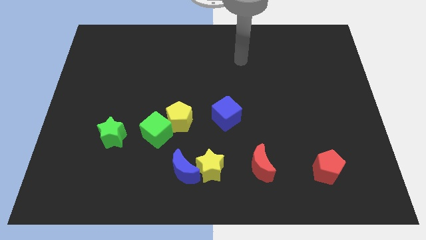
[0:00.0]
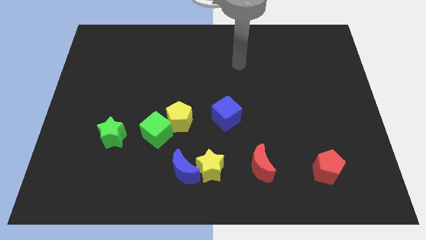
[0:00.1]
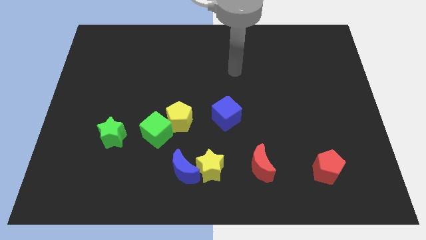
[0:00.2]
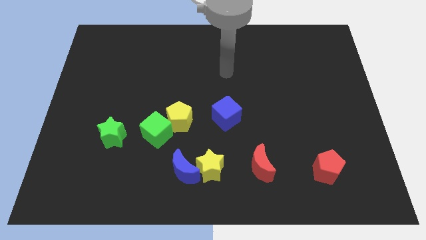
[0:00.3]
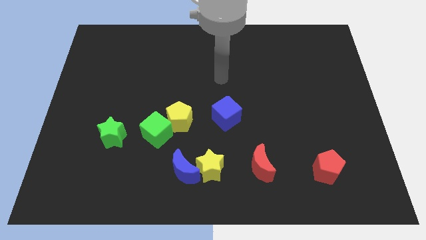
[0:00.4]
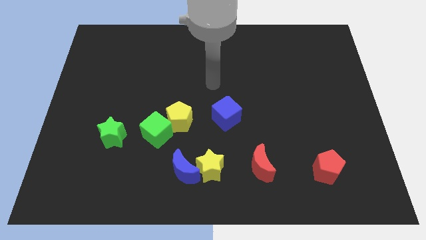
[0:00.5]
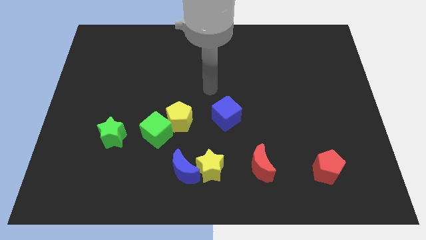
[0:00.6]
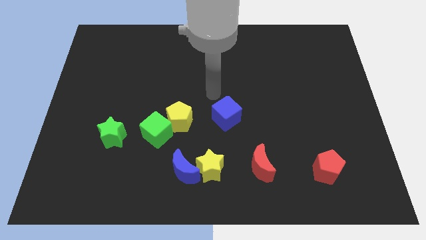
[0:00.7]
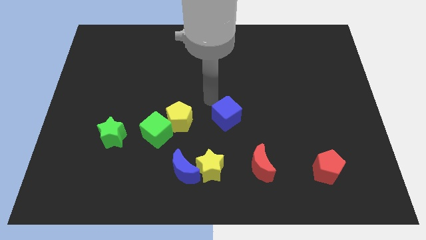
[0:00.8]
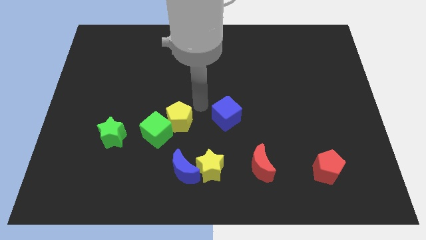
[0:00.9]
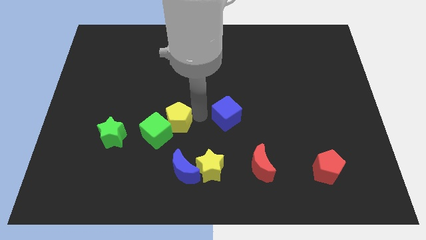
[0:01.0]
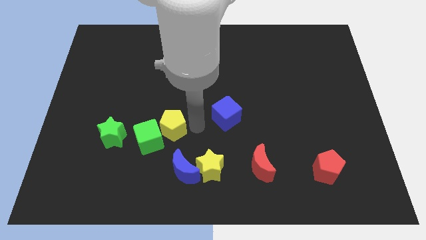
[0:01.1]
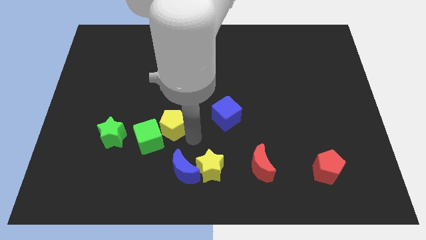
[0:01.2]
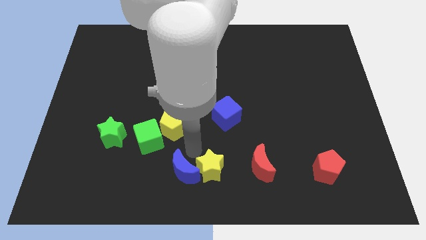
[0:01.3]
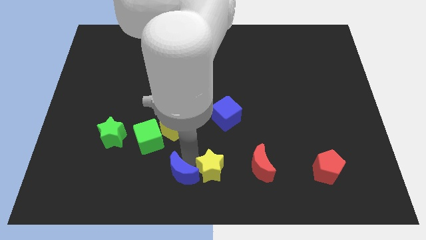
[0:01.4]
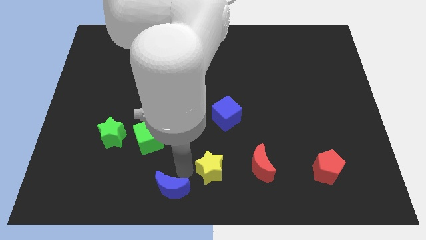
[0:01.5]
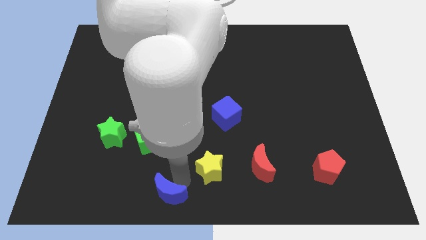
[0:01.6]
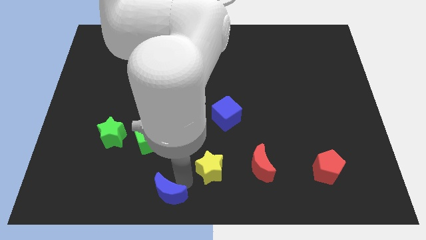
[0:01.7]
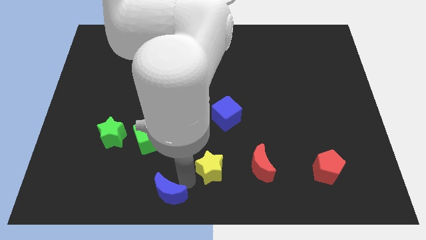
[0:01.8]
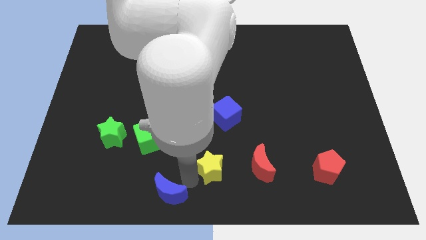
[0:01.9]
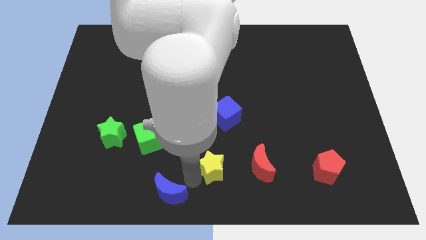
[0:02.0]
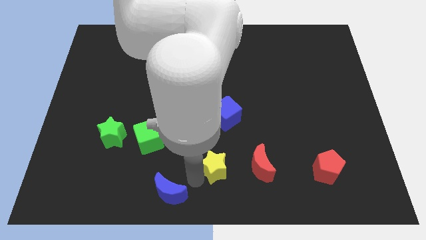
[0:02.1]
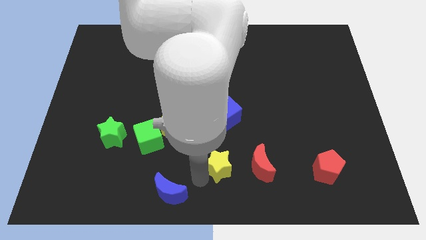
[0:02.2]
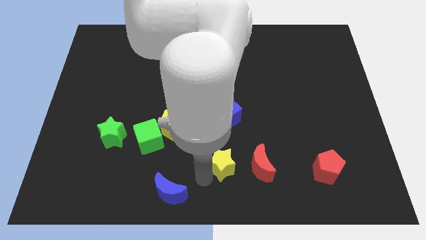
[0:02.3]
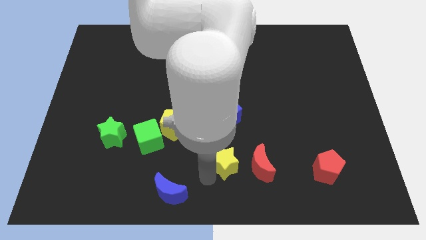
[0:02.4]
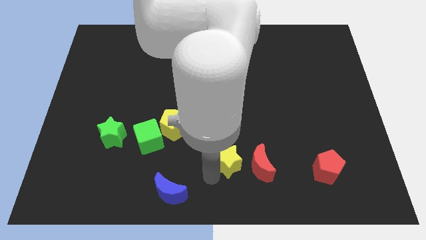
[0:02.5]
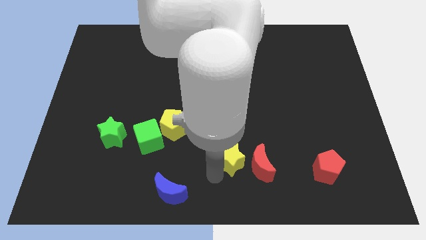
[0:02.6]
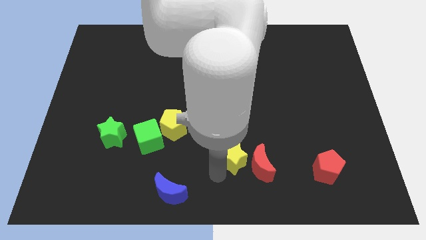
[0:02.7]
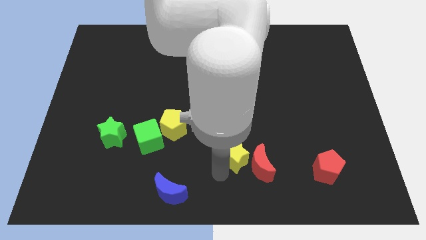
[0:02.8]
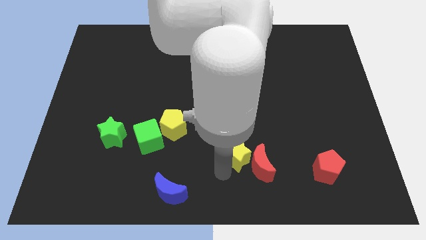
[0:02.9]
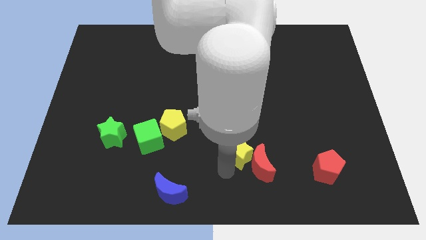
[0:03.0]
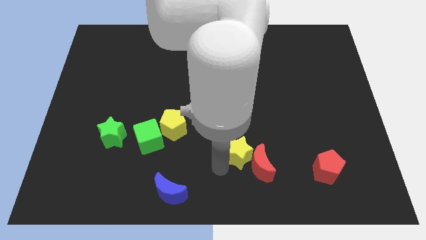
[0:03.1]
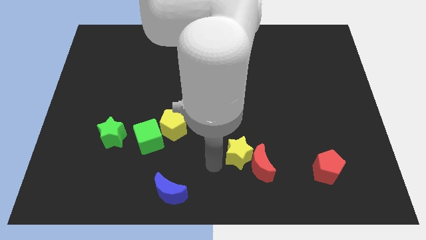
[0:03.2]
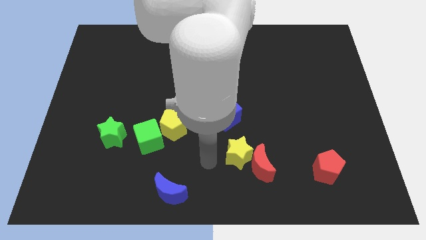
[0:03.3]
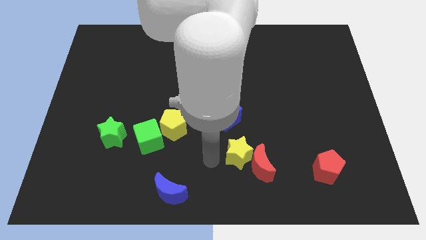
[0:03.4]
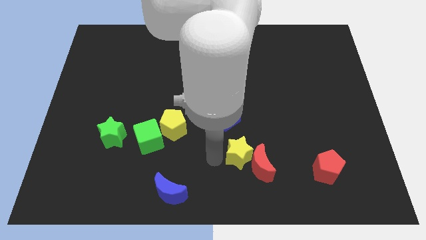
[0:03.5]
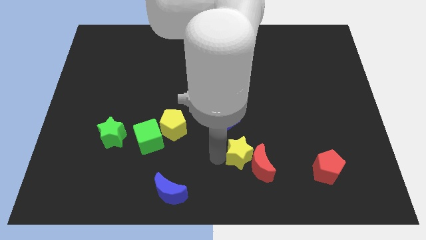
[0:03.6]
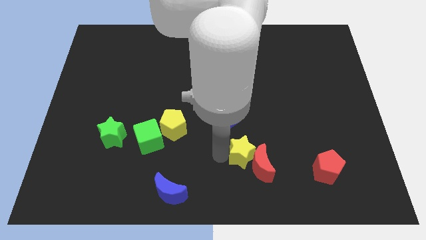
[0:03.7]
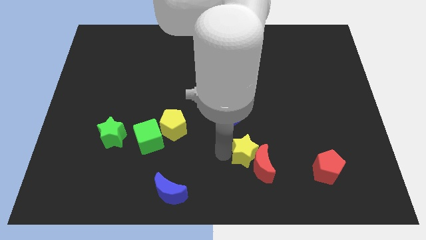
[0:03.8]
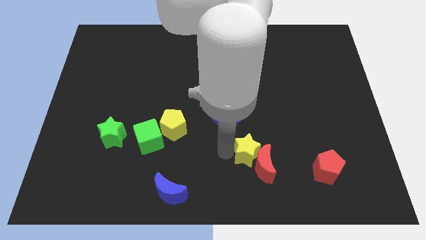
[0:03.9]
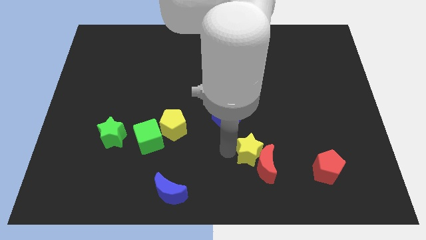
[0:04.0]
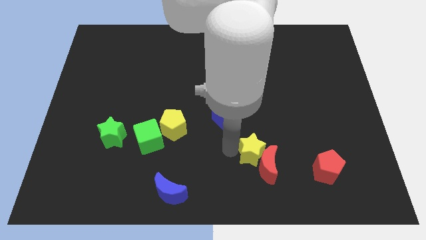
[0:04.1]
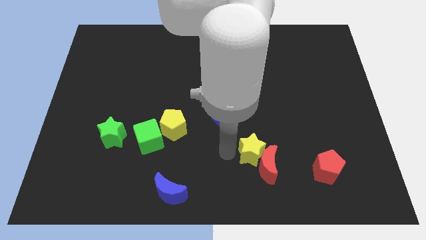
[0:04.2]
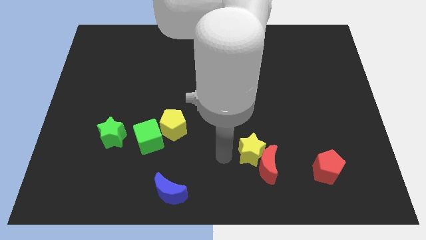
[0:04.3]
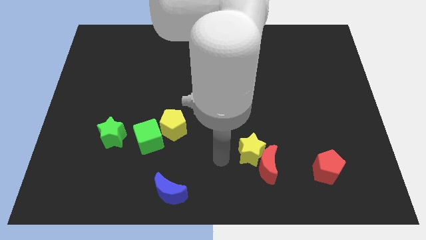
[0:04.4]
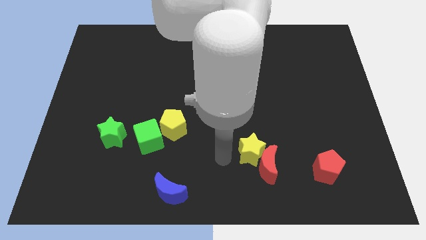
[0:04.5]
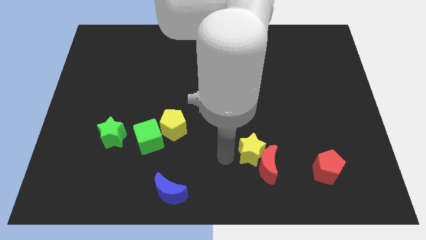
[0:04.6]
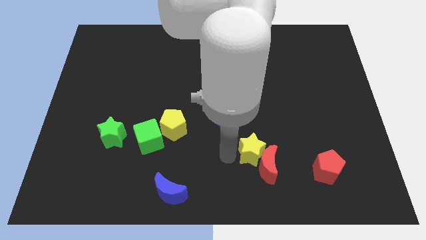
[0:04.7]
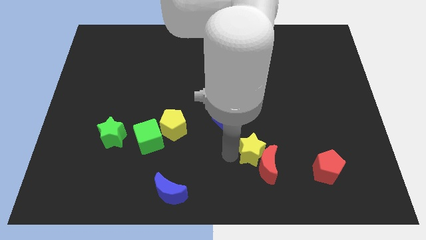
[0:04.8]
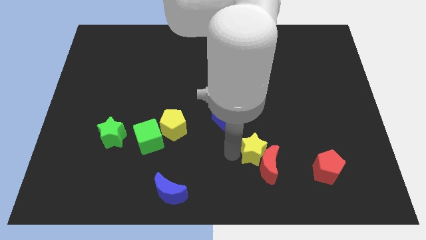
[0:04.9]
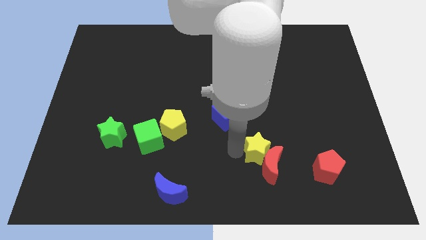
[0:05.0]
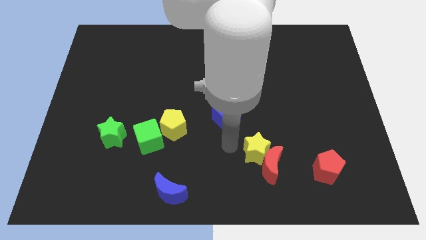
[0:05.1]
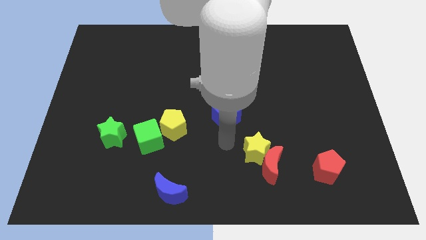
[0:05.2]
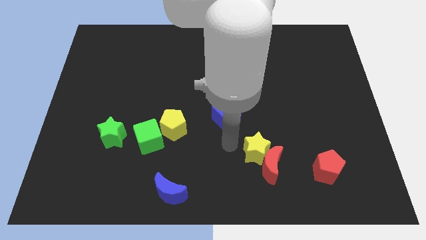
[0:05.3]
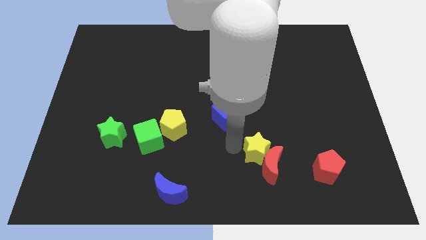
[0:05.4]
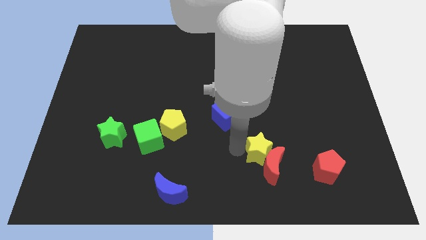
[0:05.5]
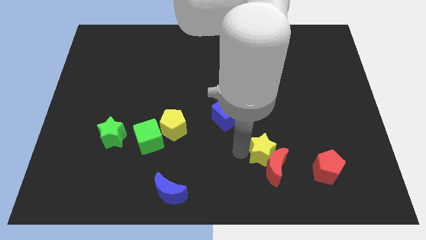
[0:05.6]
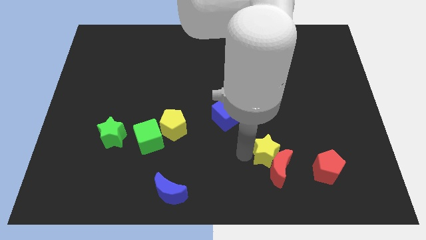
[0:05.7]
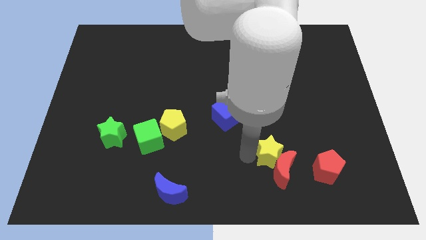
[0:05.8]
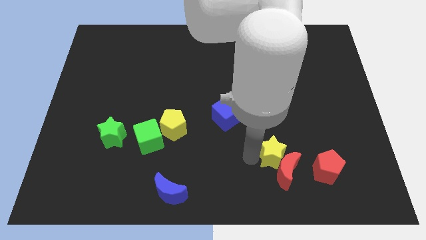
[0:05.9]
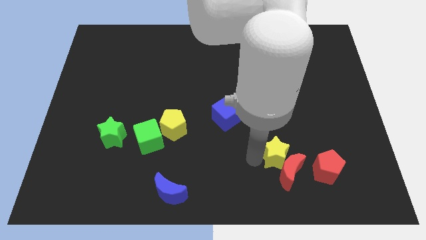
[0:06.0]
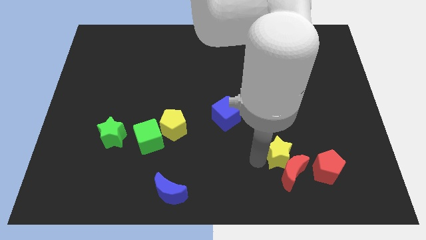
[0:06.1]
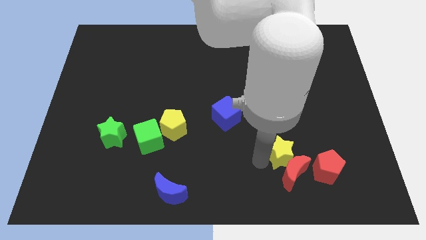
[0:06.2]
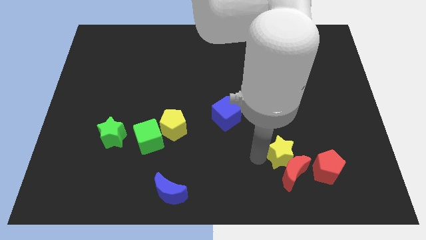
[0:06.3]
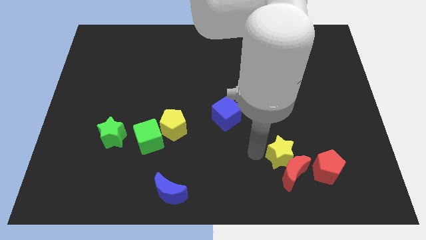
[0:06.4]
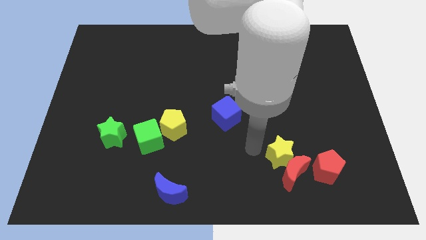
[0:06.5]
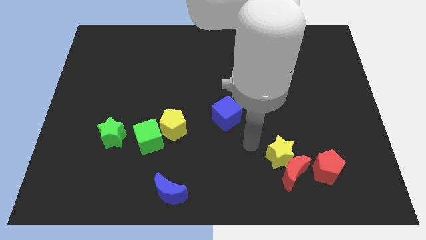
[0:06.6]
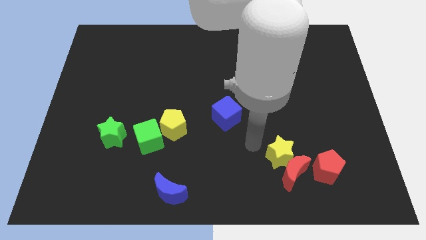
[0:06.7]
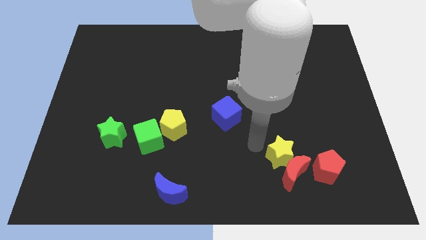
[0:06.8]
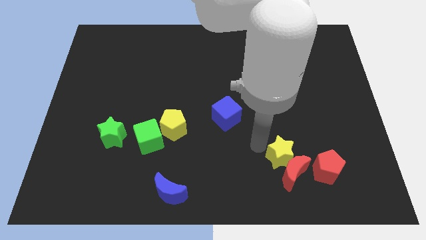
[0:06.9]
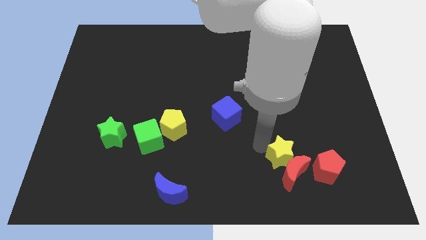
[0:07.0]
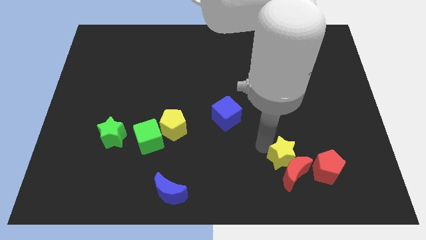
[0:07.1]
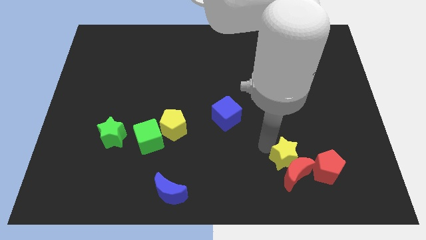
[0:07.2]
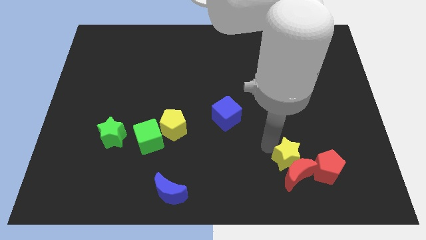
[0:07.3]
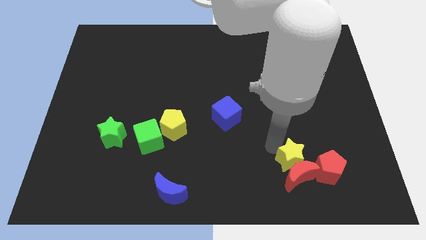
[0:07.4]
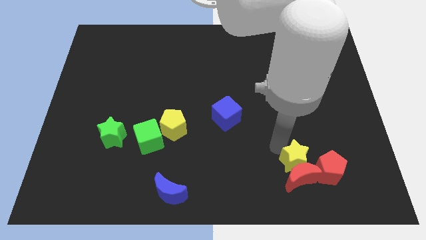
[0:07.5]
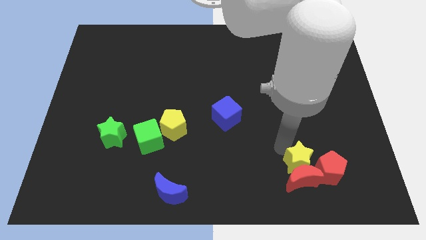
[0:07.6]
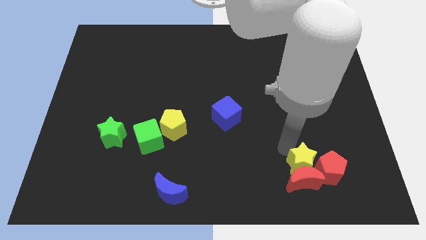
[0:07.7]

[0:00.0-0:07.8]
move the yellow star towards the red pentagon
